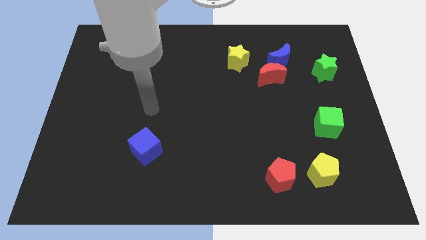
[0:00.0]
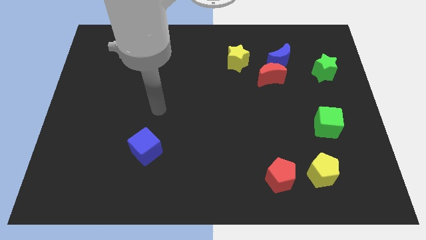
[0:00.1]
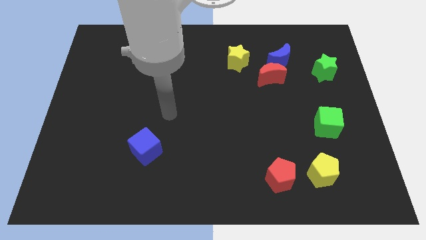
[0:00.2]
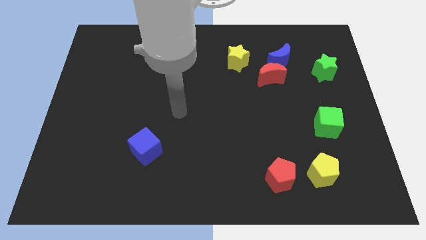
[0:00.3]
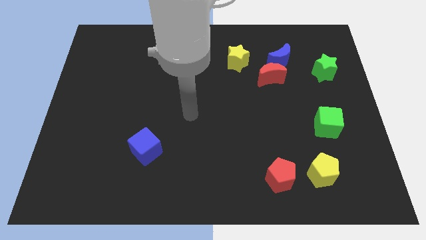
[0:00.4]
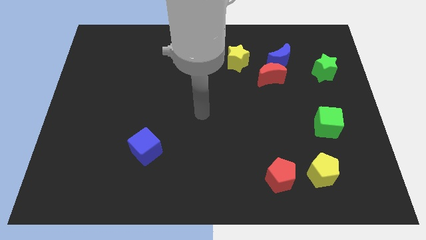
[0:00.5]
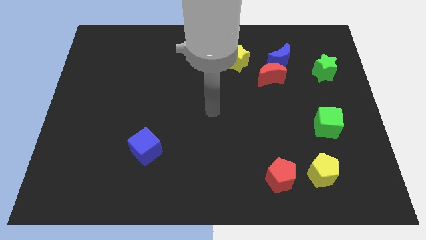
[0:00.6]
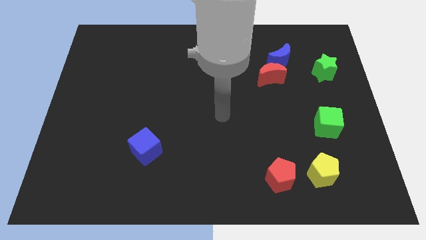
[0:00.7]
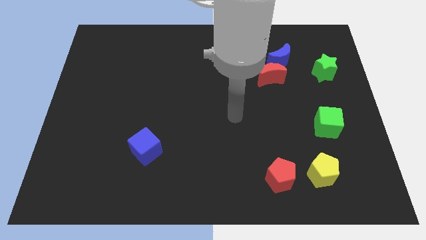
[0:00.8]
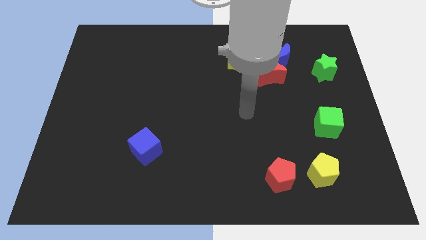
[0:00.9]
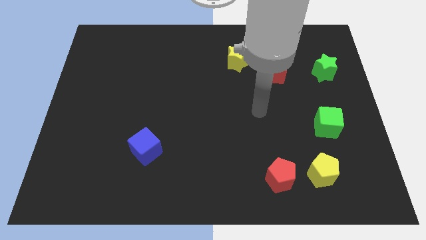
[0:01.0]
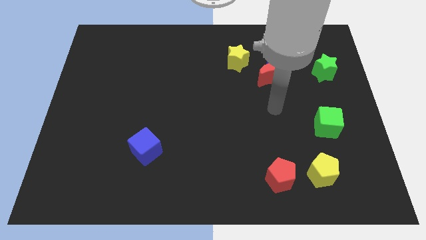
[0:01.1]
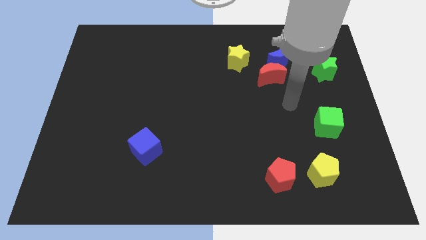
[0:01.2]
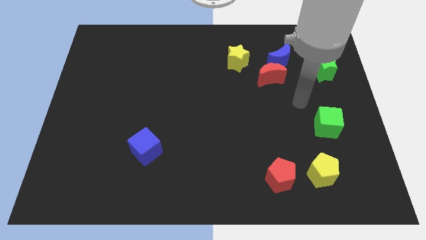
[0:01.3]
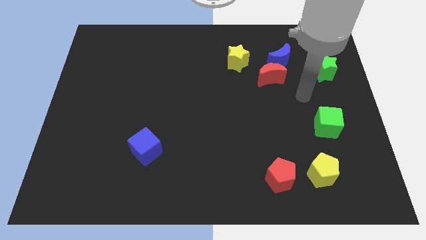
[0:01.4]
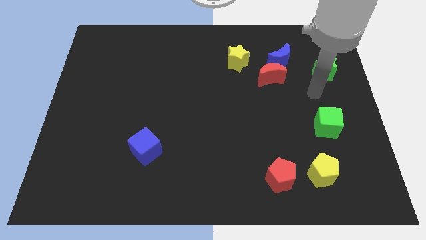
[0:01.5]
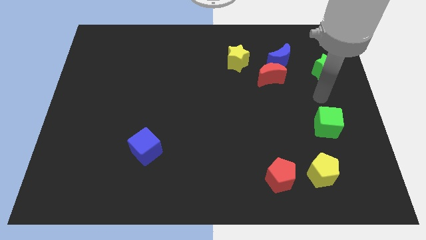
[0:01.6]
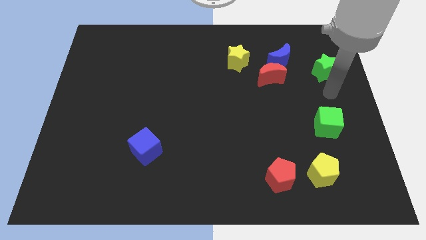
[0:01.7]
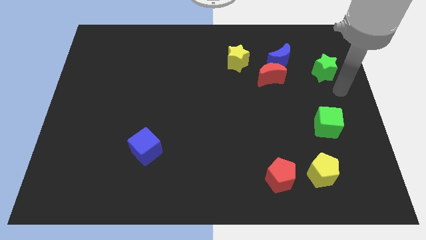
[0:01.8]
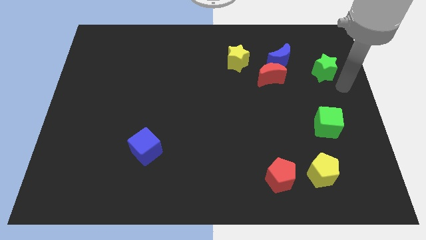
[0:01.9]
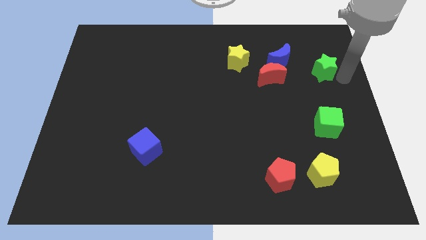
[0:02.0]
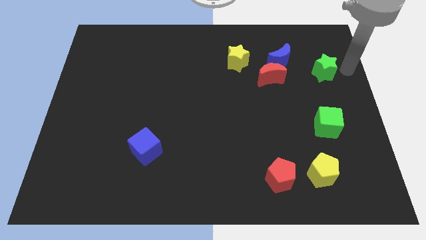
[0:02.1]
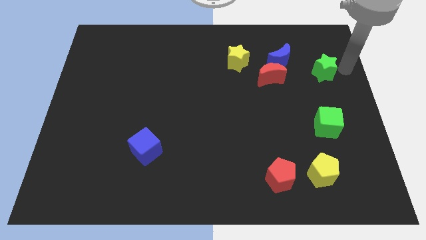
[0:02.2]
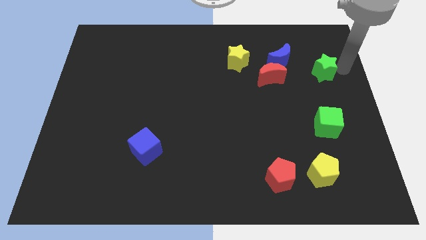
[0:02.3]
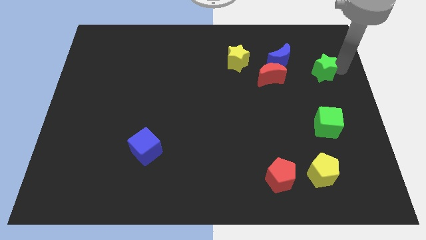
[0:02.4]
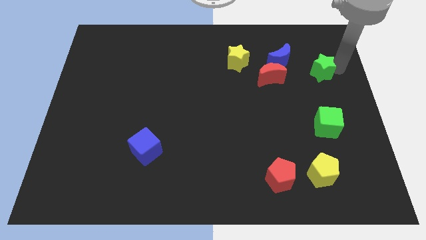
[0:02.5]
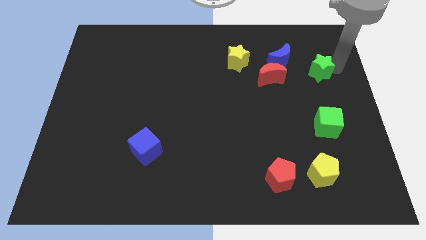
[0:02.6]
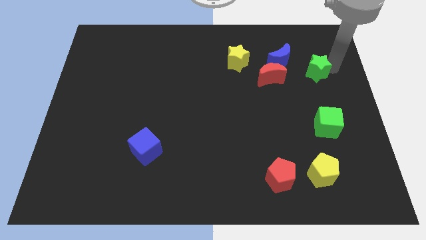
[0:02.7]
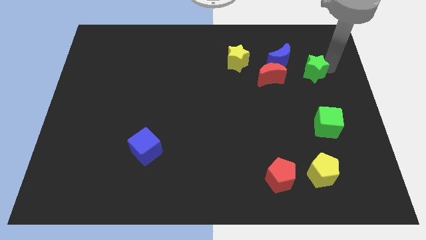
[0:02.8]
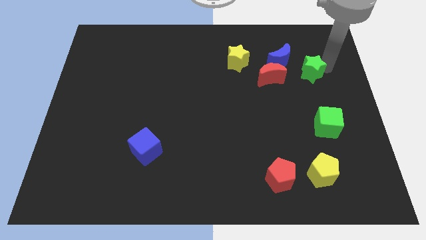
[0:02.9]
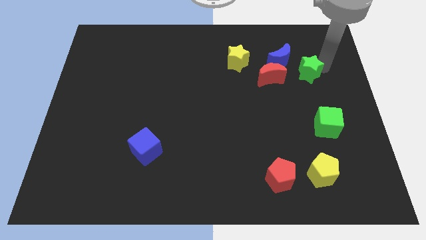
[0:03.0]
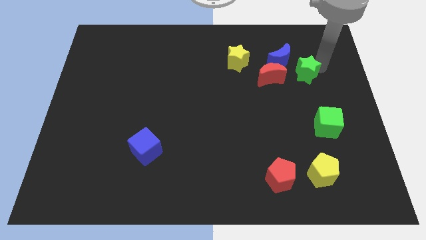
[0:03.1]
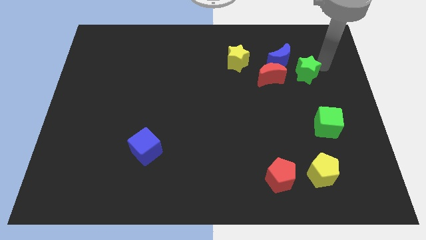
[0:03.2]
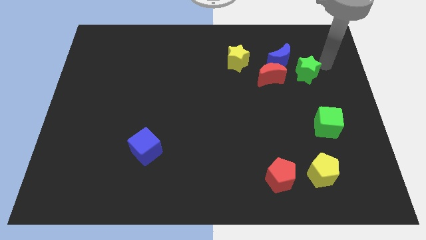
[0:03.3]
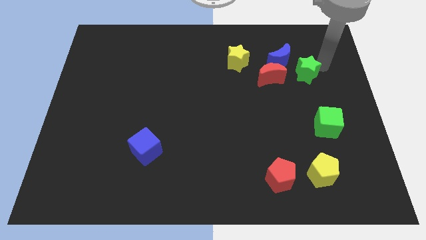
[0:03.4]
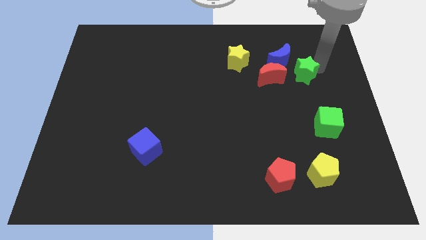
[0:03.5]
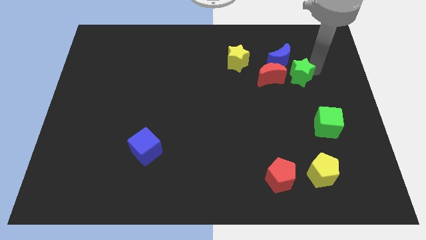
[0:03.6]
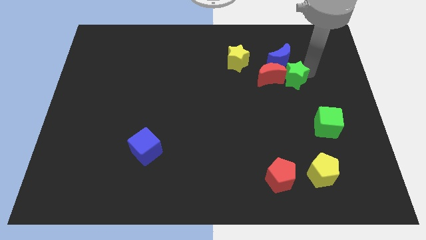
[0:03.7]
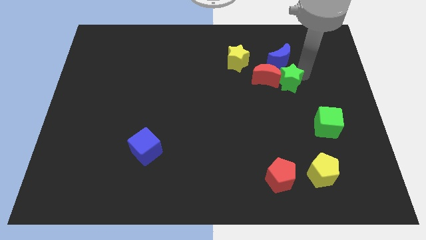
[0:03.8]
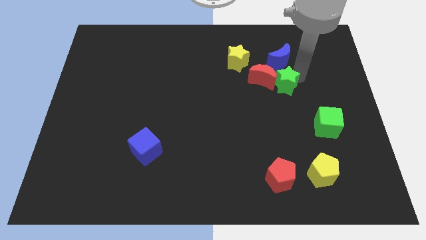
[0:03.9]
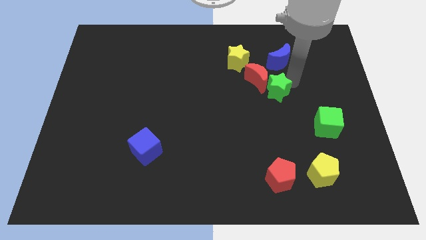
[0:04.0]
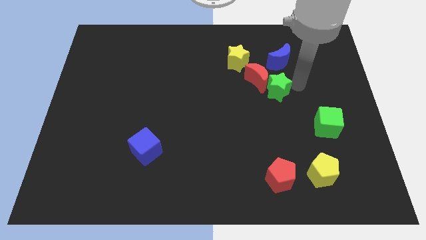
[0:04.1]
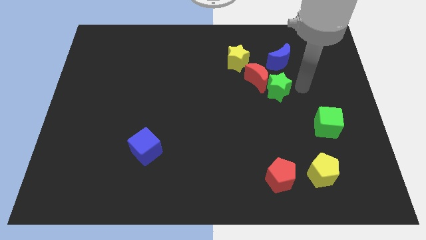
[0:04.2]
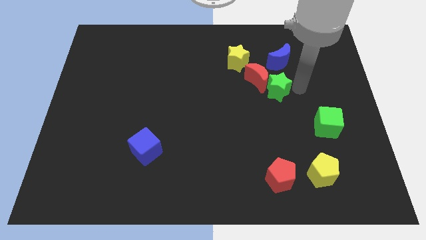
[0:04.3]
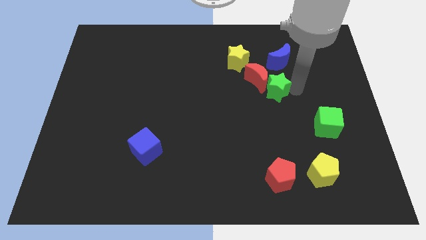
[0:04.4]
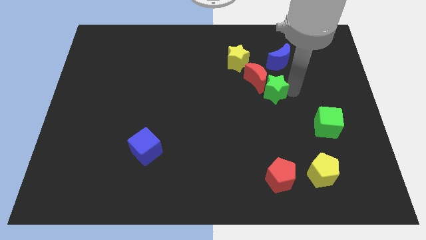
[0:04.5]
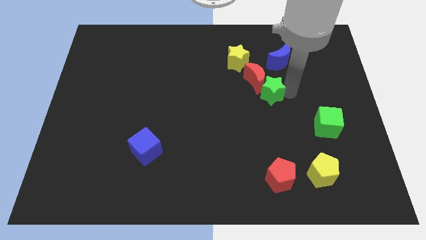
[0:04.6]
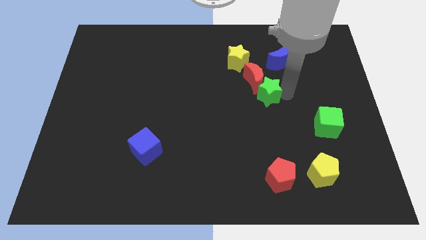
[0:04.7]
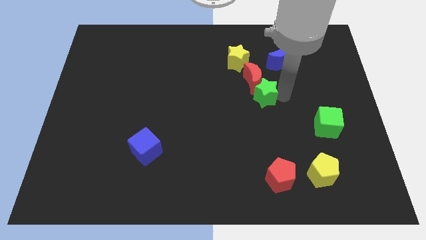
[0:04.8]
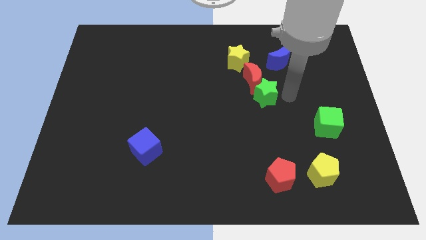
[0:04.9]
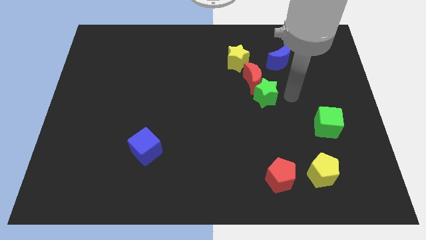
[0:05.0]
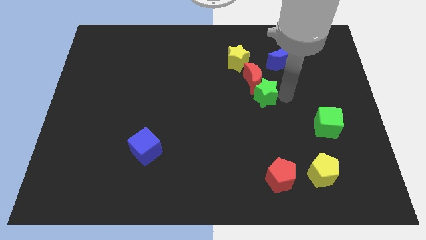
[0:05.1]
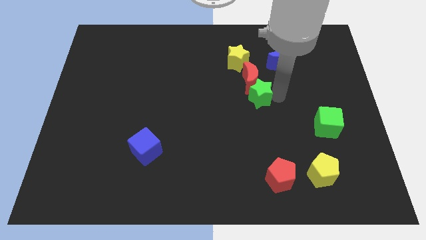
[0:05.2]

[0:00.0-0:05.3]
put the green star diagonally down and to the left of the red moon

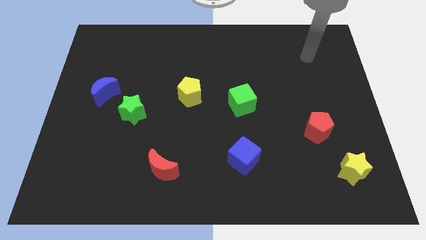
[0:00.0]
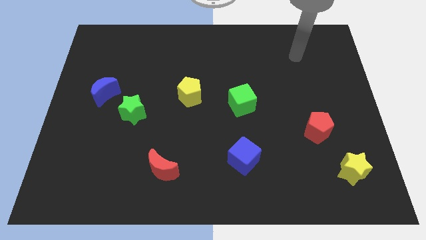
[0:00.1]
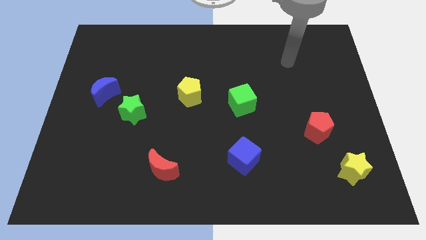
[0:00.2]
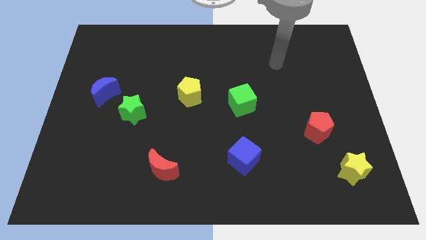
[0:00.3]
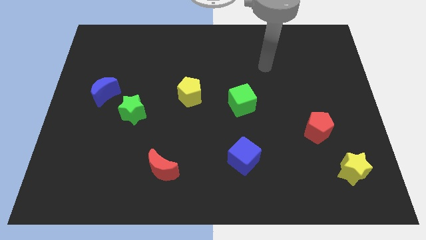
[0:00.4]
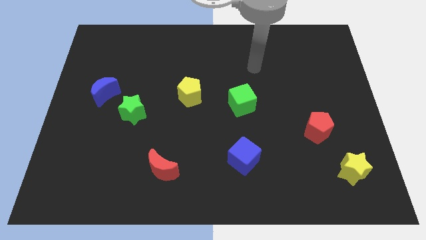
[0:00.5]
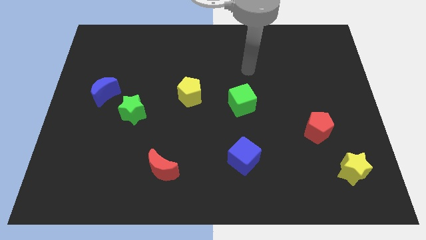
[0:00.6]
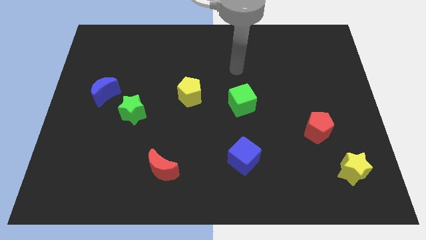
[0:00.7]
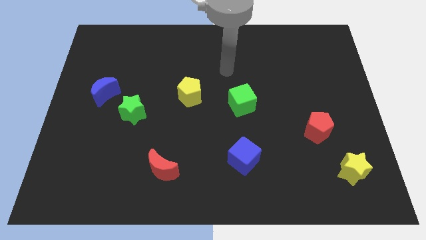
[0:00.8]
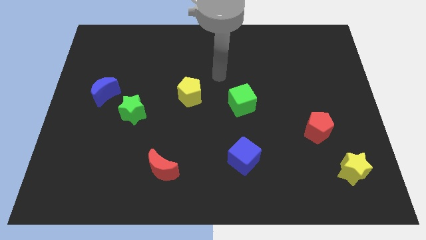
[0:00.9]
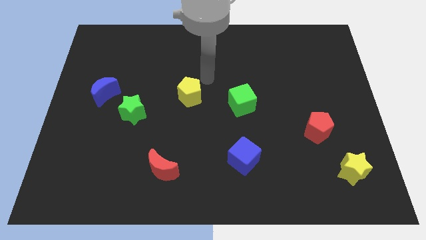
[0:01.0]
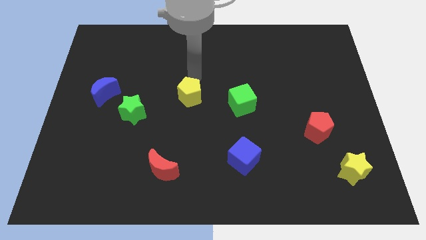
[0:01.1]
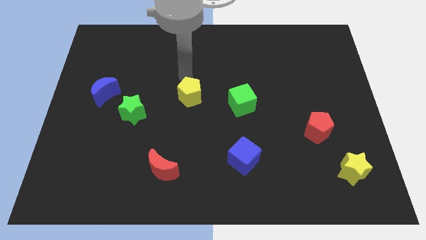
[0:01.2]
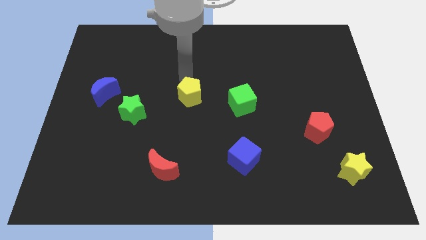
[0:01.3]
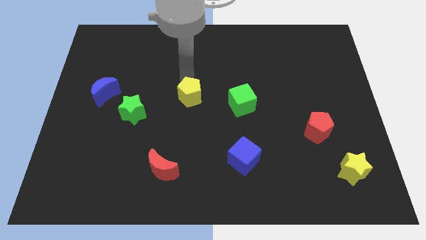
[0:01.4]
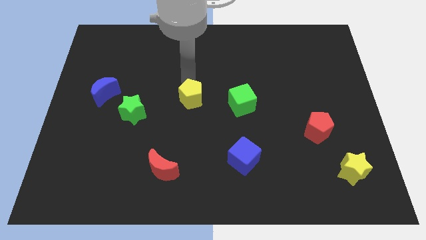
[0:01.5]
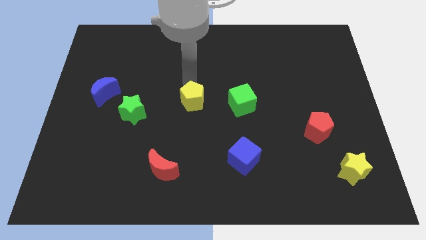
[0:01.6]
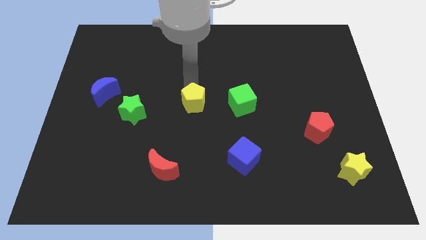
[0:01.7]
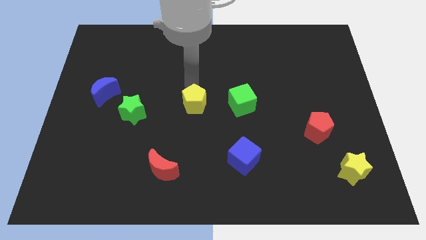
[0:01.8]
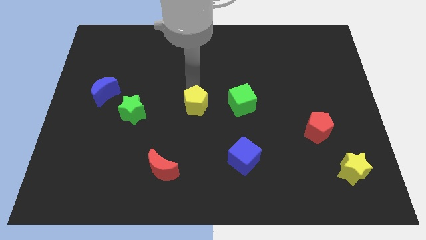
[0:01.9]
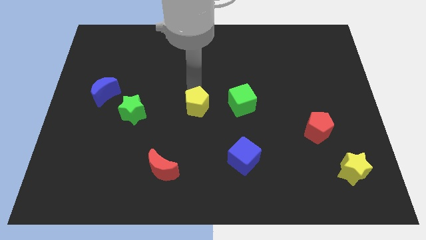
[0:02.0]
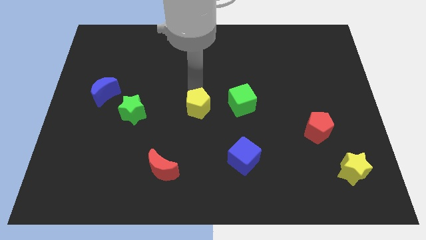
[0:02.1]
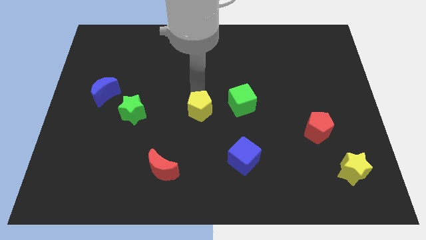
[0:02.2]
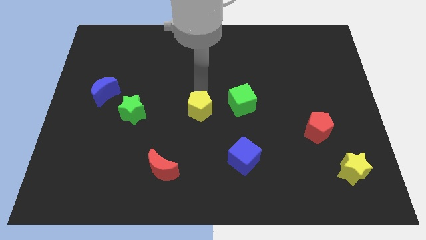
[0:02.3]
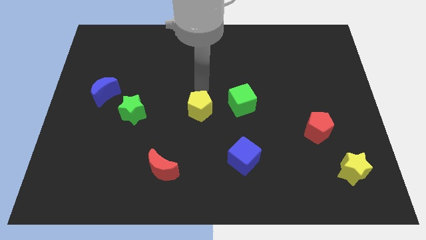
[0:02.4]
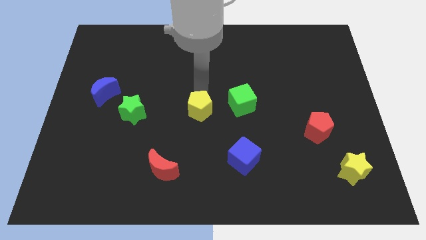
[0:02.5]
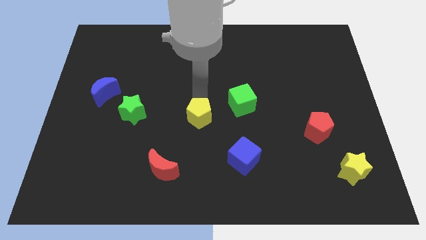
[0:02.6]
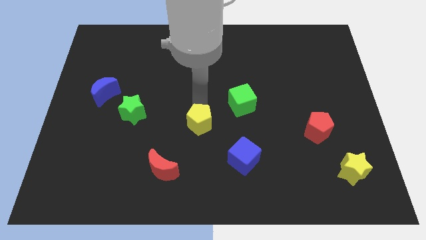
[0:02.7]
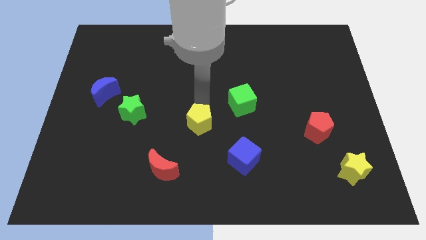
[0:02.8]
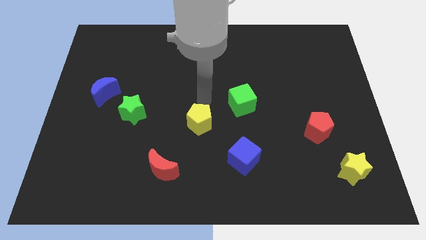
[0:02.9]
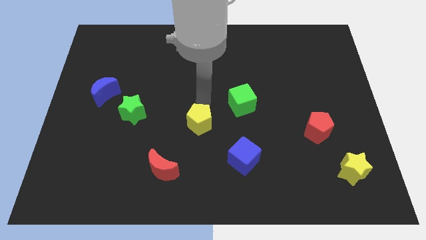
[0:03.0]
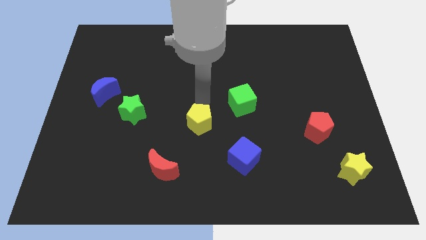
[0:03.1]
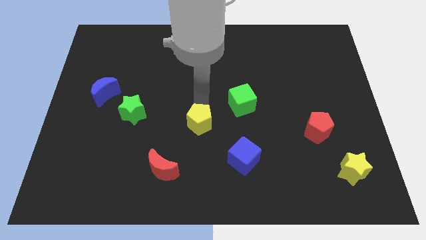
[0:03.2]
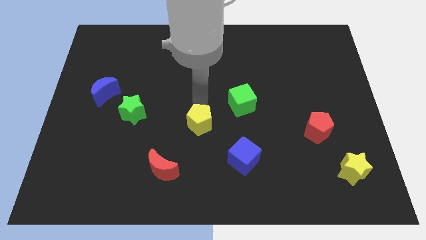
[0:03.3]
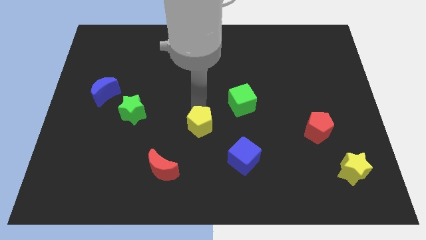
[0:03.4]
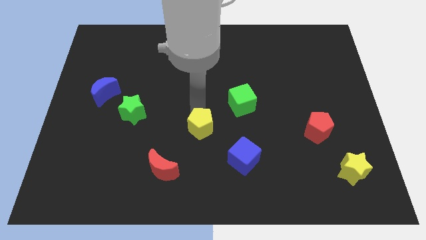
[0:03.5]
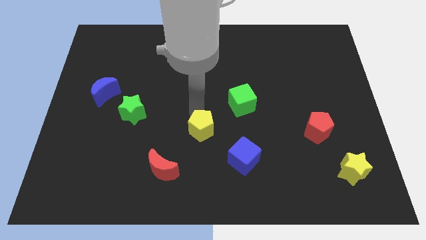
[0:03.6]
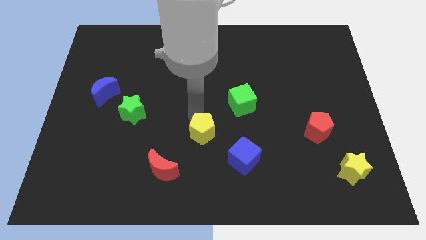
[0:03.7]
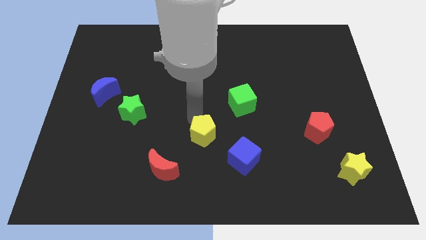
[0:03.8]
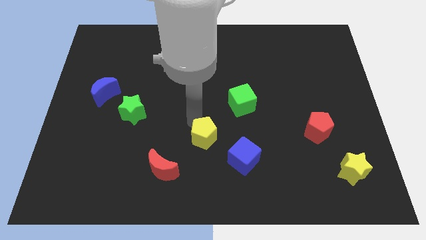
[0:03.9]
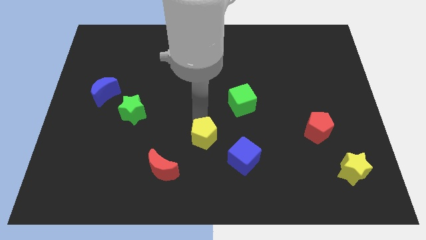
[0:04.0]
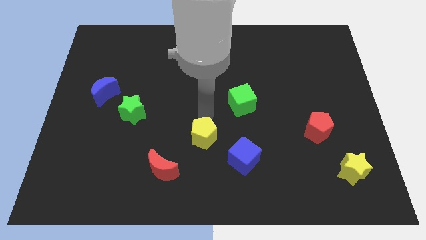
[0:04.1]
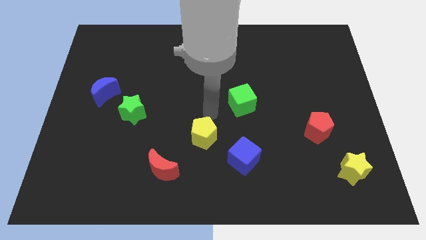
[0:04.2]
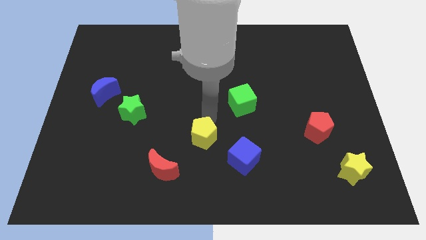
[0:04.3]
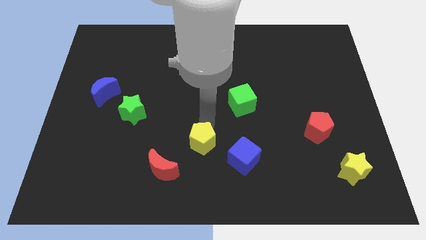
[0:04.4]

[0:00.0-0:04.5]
move the yellow pentagon left of the blue cube
